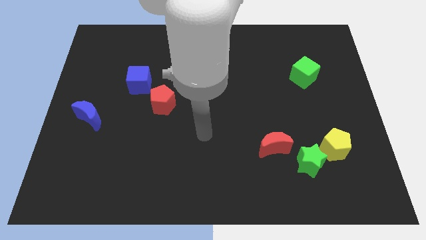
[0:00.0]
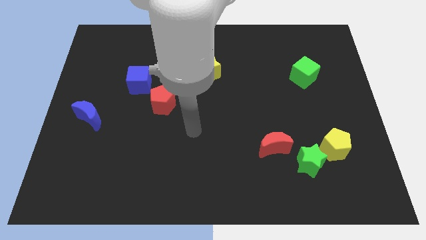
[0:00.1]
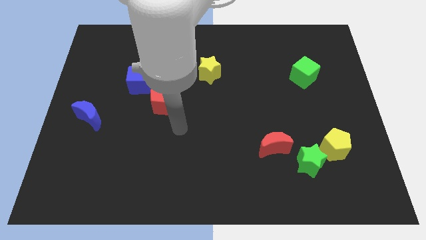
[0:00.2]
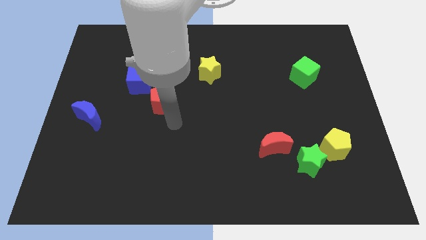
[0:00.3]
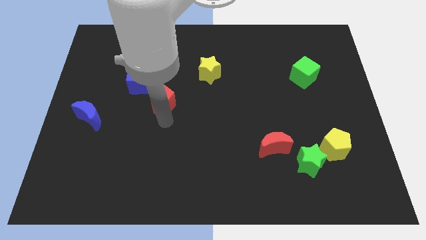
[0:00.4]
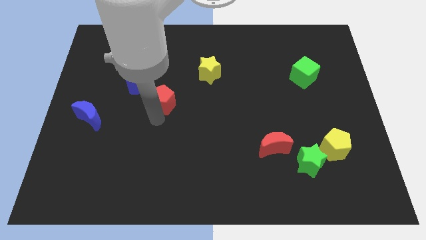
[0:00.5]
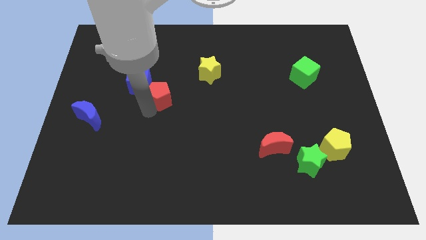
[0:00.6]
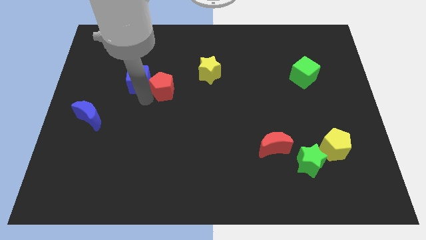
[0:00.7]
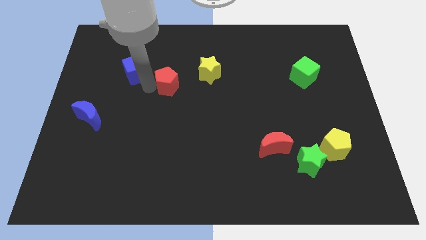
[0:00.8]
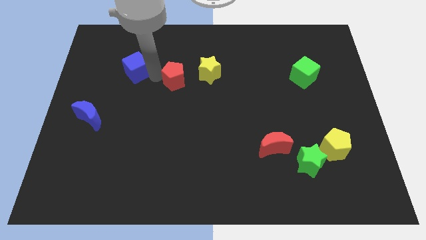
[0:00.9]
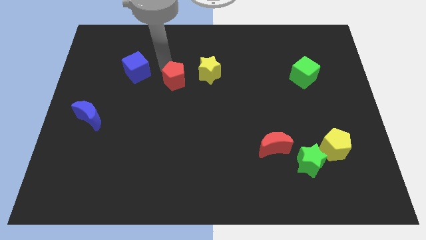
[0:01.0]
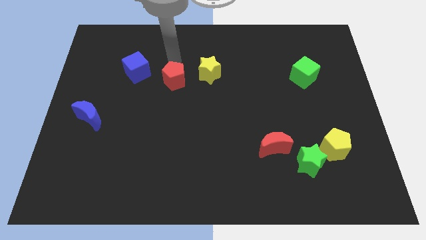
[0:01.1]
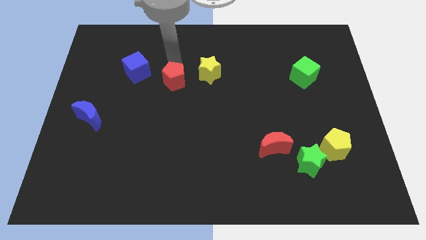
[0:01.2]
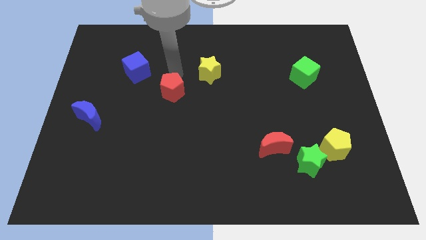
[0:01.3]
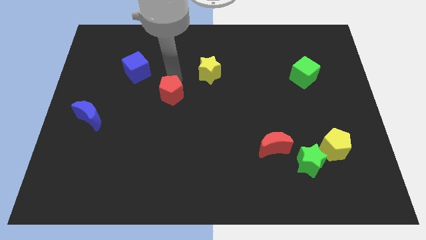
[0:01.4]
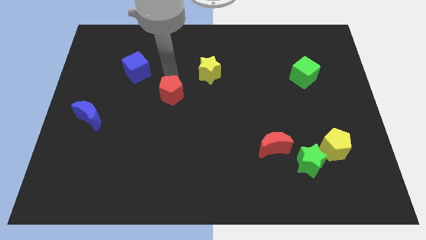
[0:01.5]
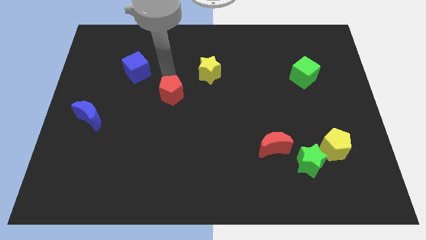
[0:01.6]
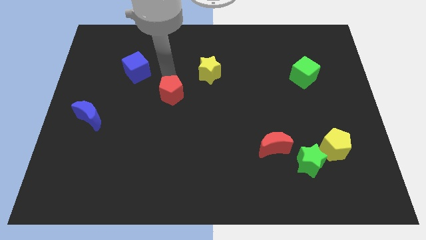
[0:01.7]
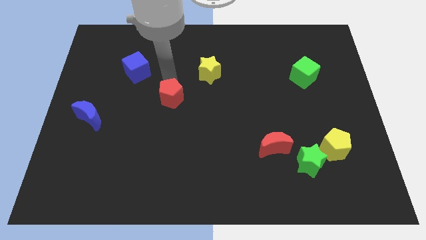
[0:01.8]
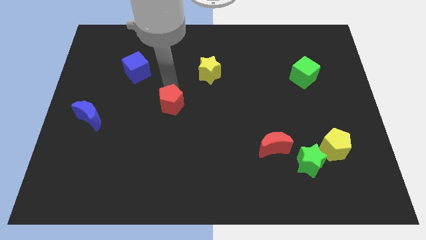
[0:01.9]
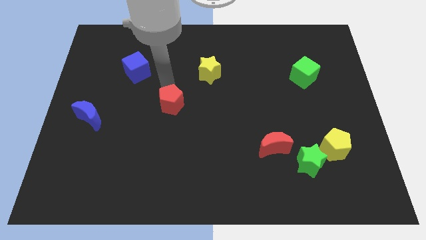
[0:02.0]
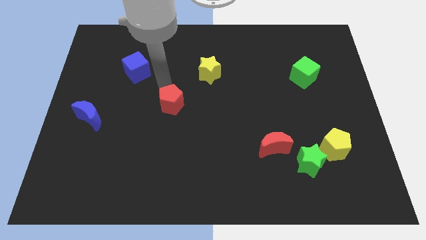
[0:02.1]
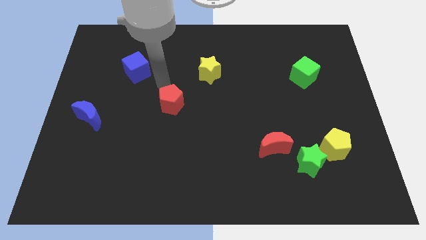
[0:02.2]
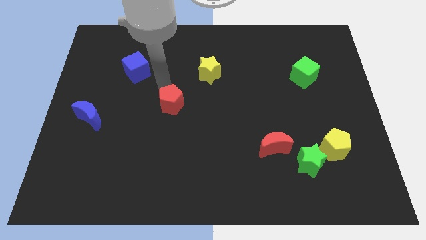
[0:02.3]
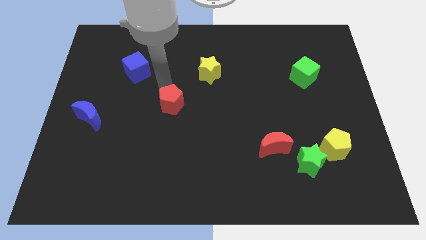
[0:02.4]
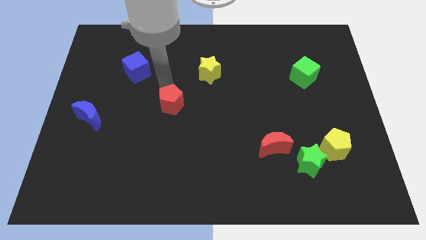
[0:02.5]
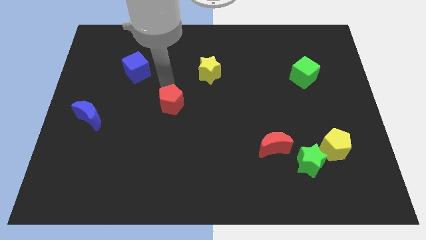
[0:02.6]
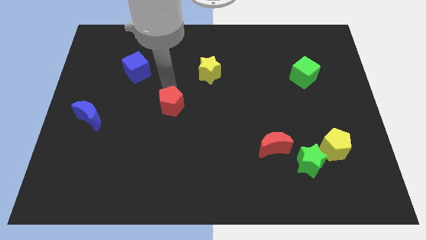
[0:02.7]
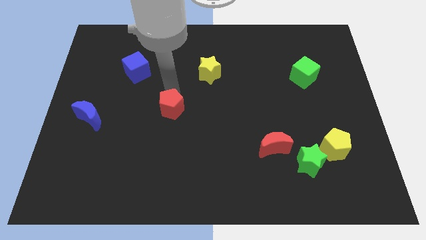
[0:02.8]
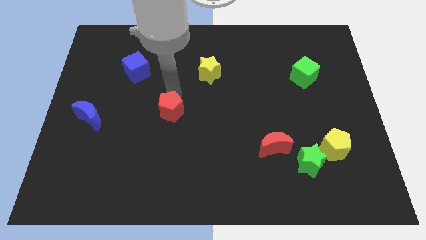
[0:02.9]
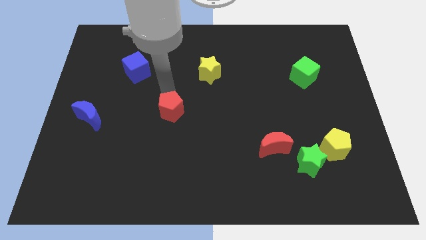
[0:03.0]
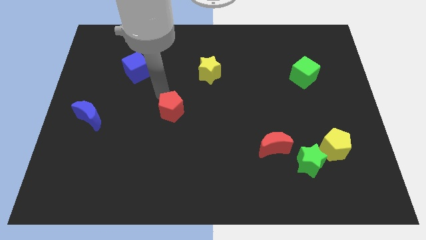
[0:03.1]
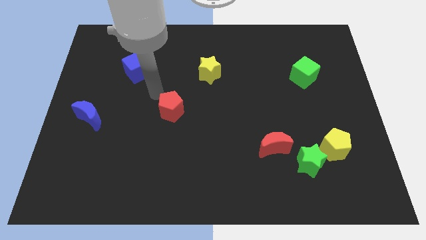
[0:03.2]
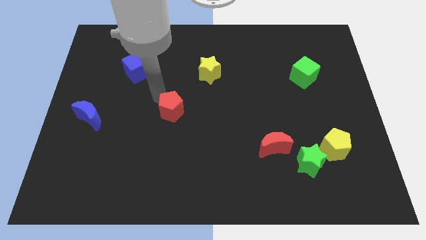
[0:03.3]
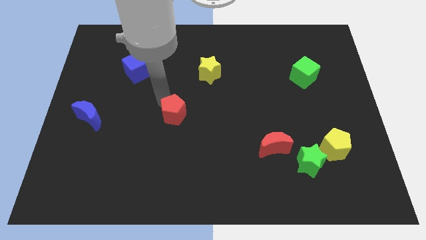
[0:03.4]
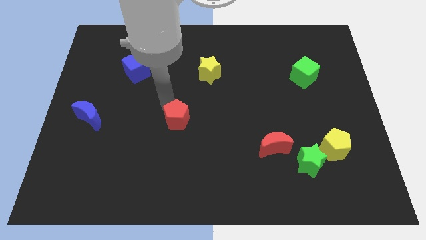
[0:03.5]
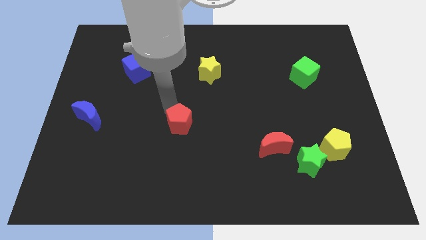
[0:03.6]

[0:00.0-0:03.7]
slightly push the red pentagon down and to the right

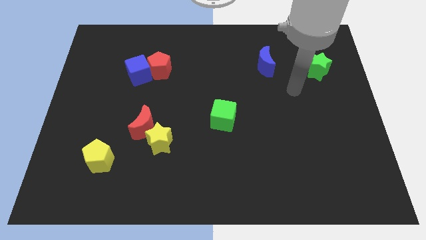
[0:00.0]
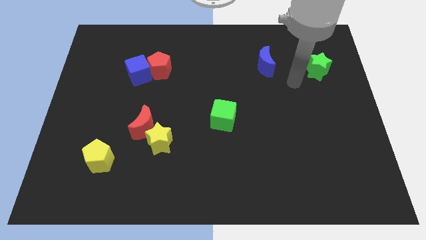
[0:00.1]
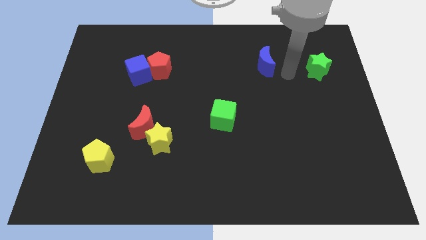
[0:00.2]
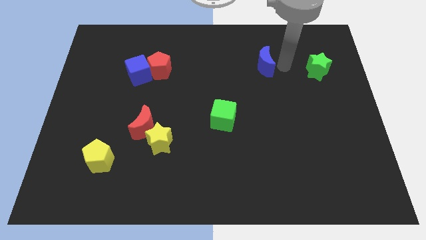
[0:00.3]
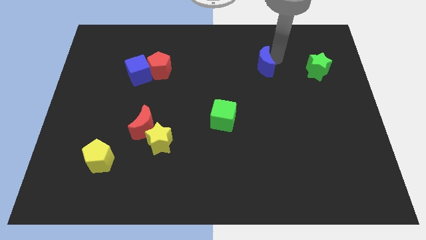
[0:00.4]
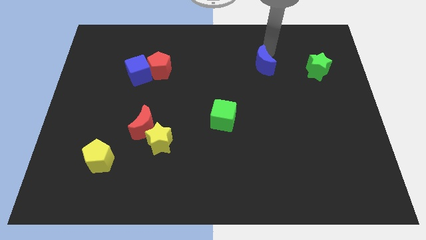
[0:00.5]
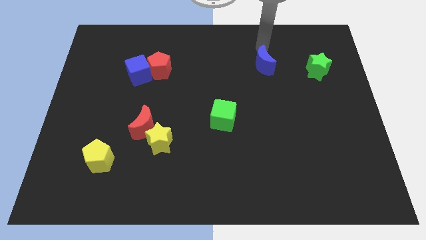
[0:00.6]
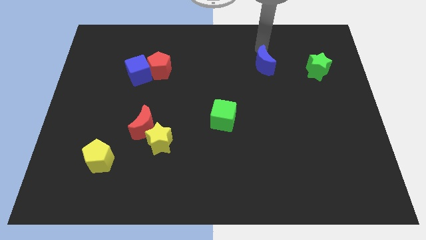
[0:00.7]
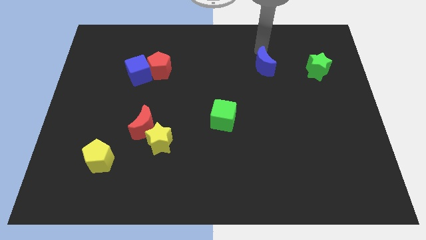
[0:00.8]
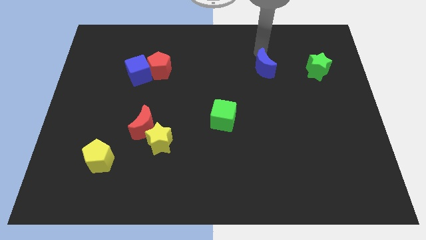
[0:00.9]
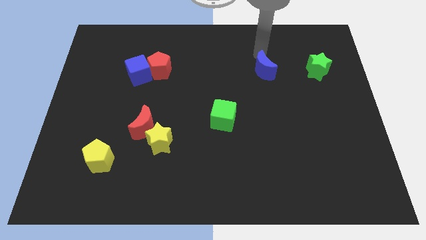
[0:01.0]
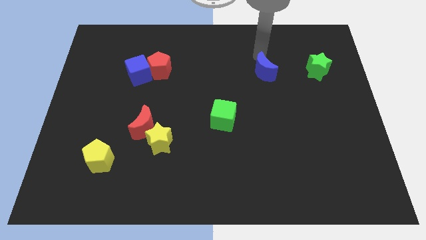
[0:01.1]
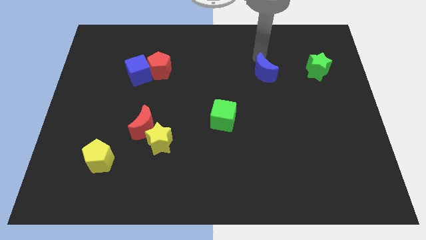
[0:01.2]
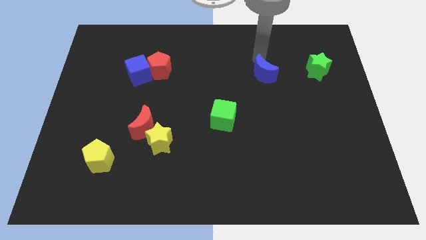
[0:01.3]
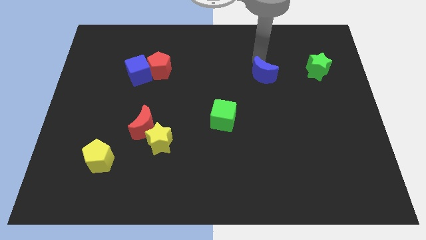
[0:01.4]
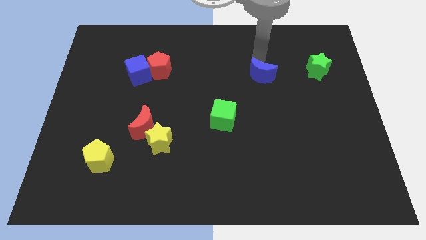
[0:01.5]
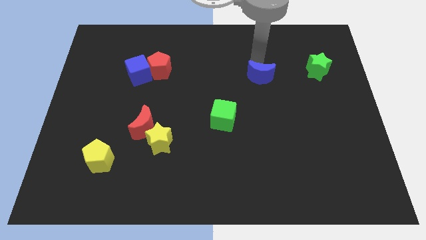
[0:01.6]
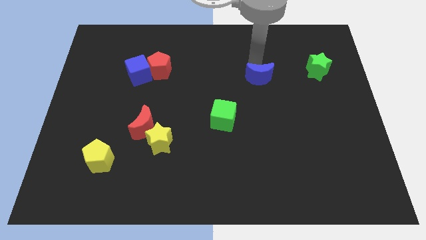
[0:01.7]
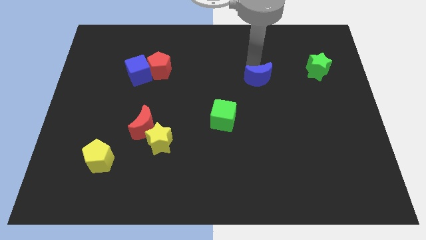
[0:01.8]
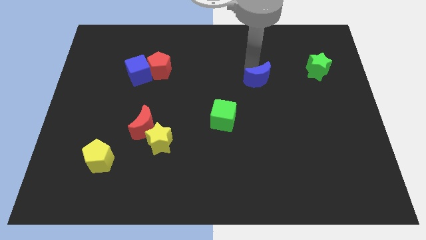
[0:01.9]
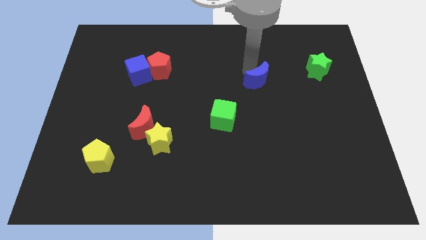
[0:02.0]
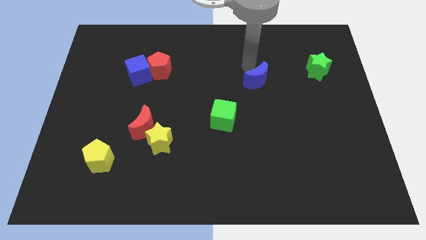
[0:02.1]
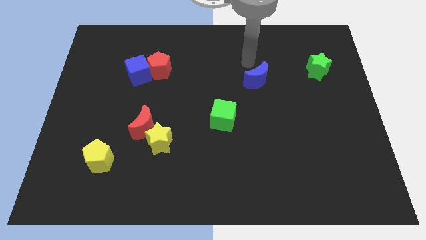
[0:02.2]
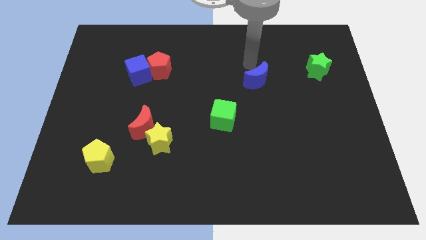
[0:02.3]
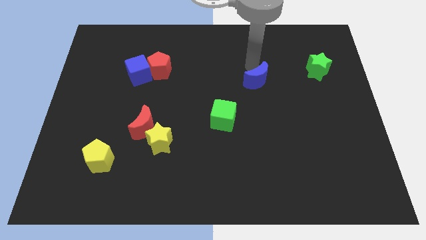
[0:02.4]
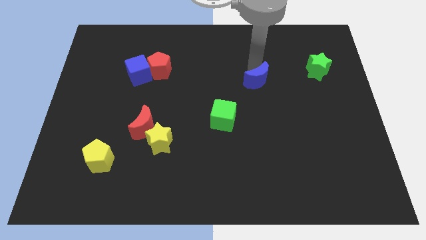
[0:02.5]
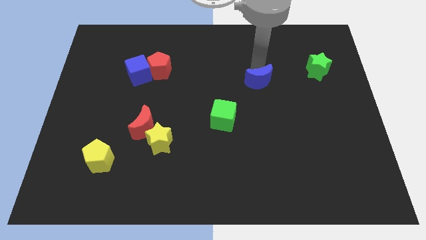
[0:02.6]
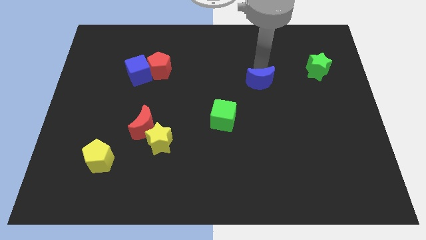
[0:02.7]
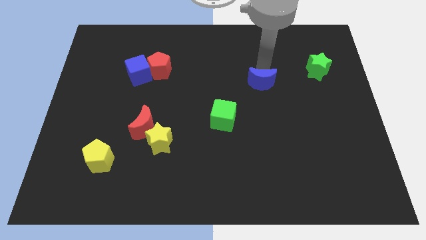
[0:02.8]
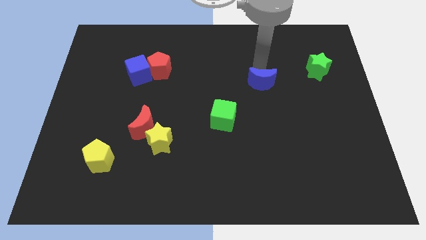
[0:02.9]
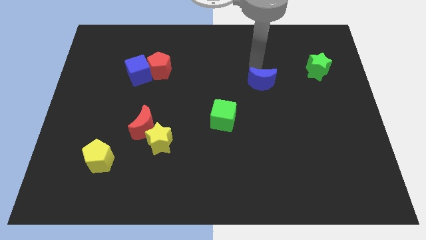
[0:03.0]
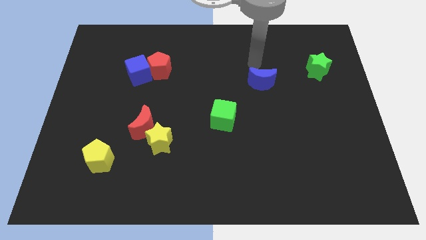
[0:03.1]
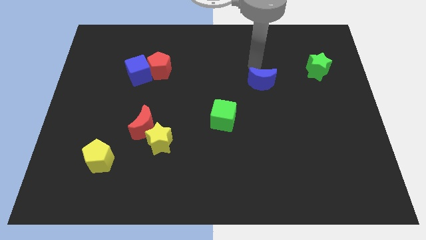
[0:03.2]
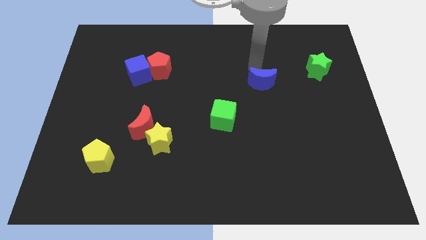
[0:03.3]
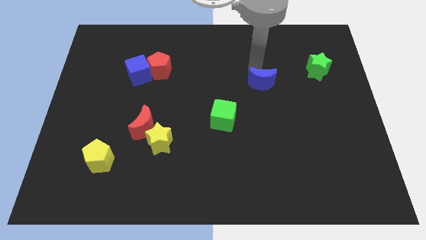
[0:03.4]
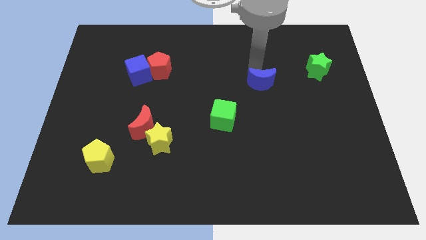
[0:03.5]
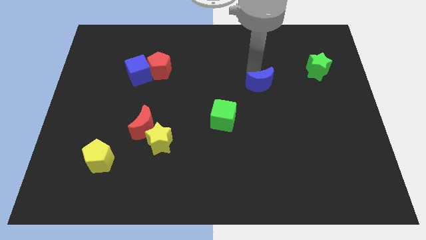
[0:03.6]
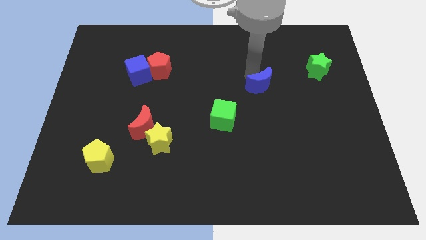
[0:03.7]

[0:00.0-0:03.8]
slightly push the blue moon downwards

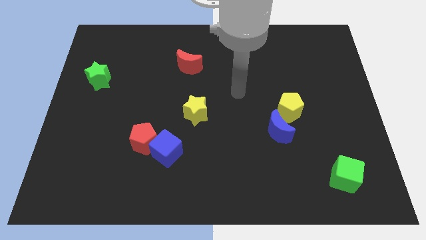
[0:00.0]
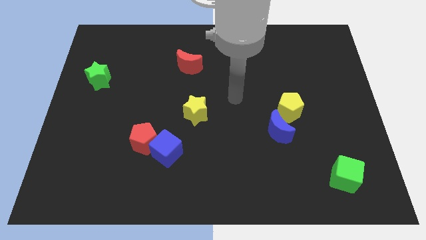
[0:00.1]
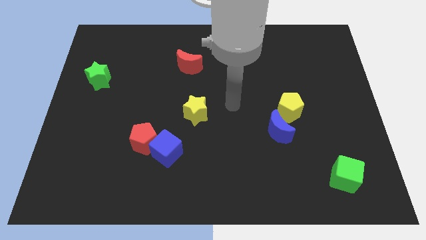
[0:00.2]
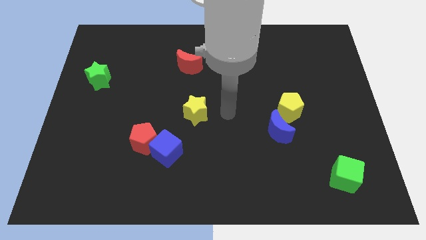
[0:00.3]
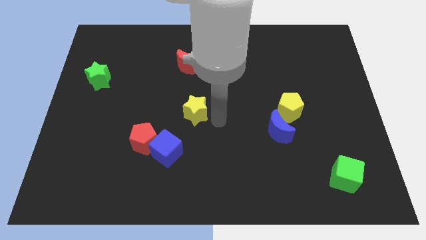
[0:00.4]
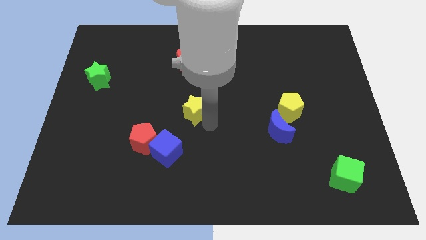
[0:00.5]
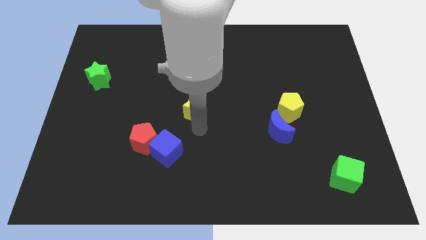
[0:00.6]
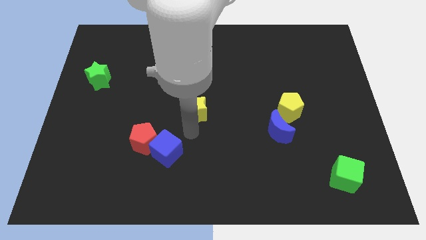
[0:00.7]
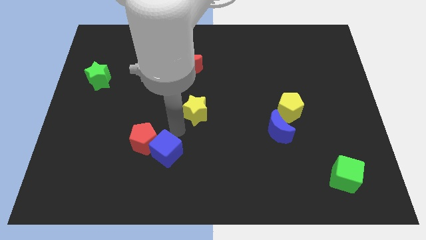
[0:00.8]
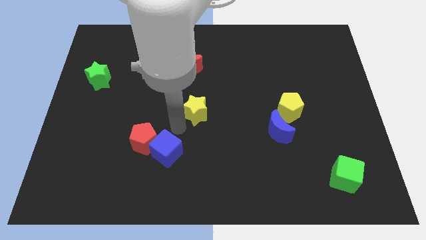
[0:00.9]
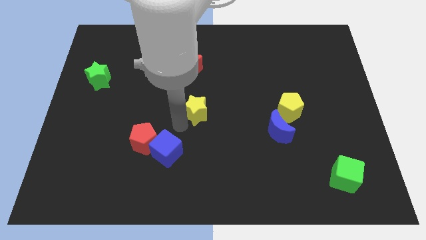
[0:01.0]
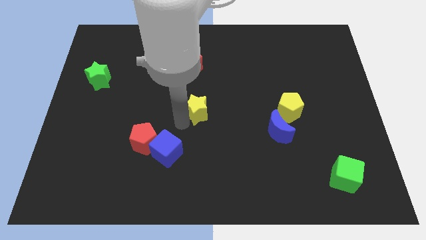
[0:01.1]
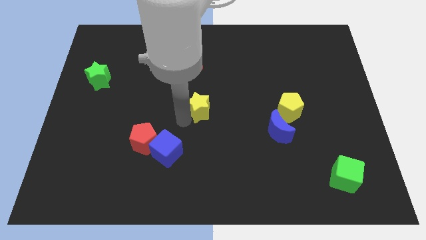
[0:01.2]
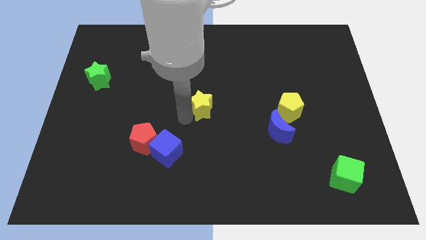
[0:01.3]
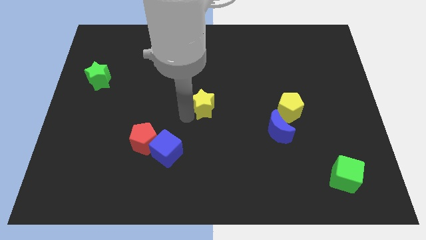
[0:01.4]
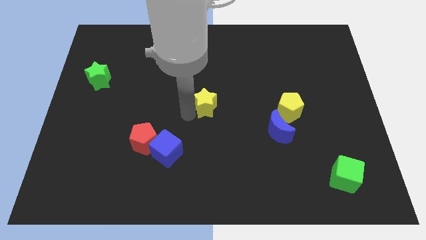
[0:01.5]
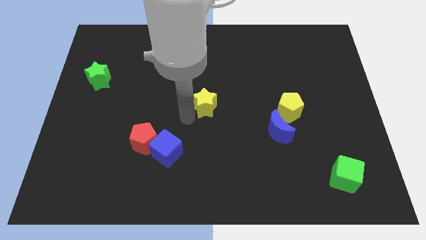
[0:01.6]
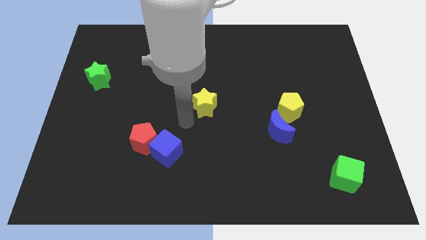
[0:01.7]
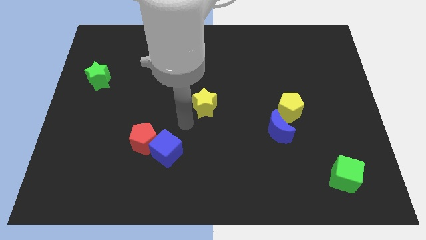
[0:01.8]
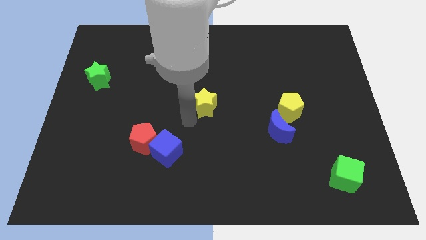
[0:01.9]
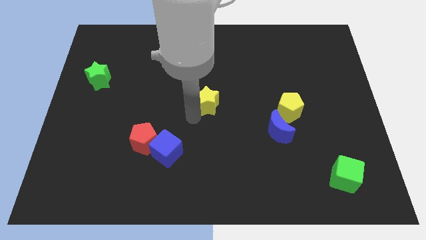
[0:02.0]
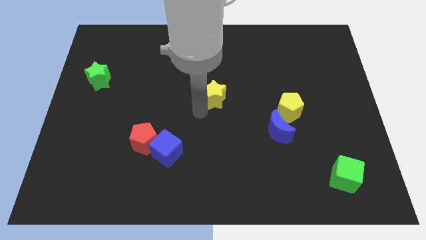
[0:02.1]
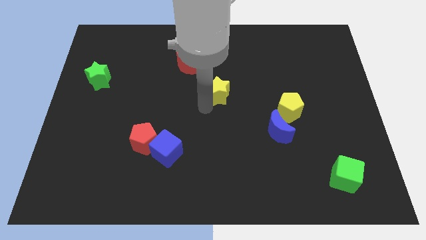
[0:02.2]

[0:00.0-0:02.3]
slightly push the yellow star up and right
